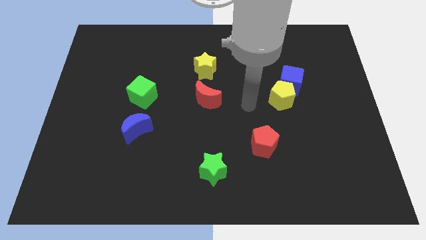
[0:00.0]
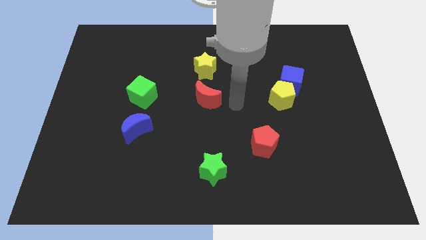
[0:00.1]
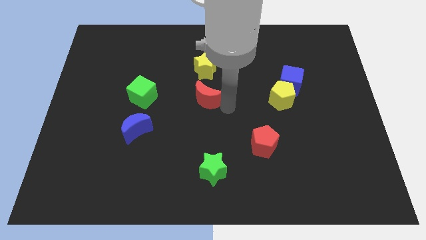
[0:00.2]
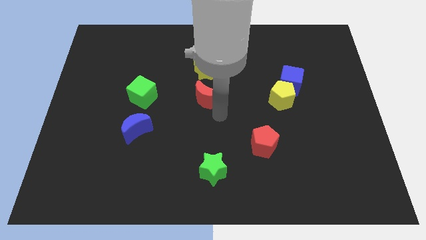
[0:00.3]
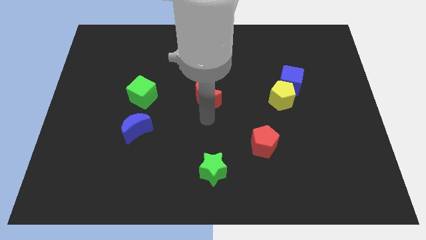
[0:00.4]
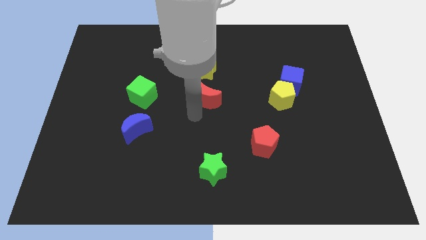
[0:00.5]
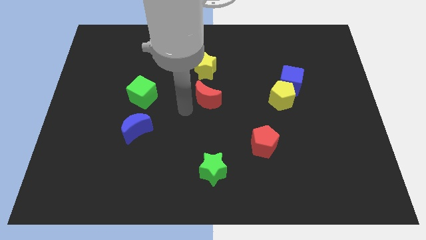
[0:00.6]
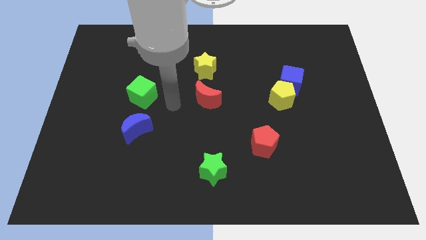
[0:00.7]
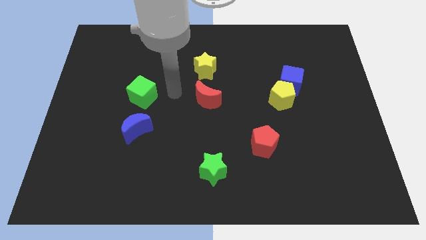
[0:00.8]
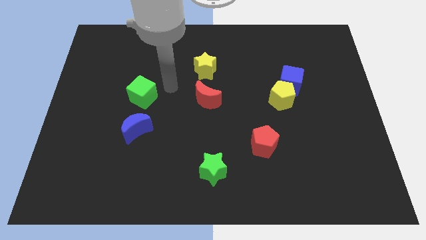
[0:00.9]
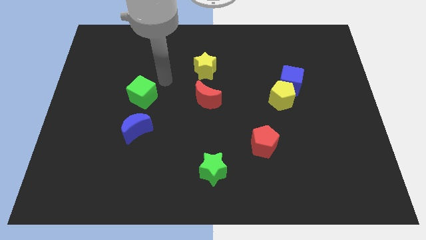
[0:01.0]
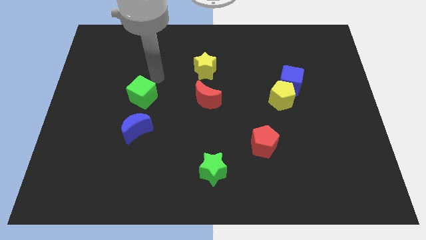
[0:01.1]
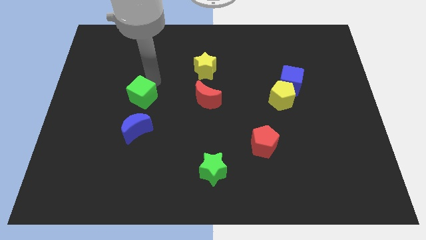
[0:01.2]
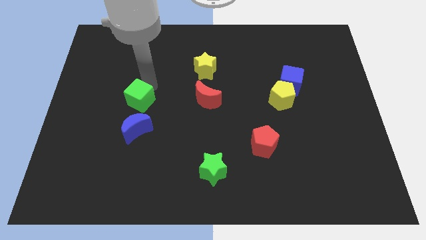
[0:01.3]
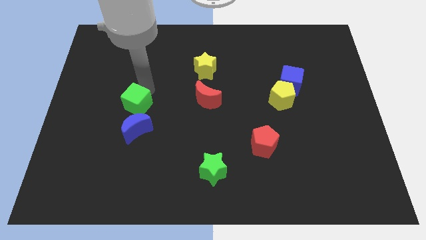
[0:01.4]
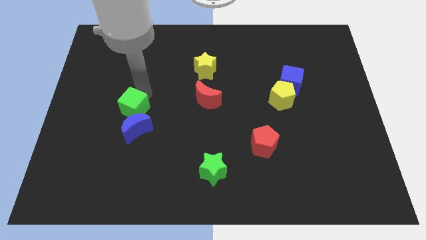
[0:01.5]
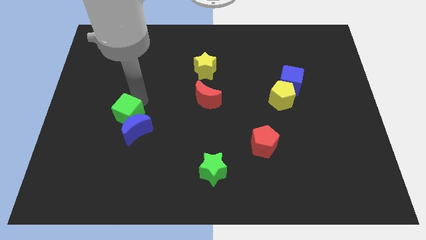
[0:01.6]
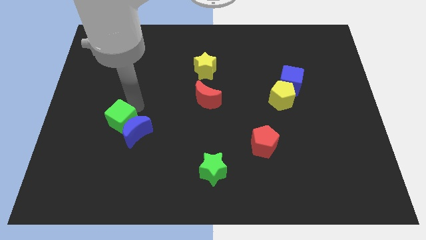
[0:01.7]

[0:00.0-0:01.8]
slide the green cube downwards a little bit

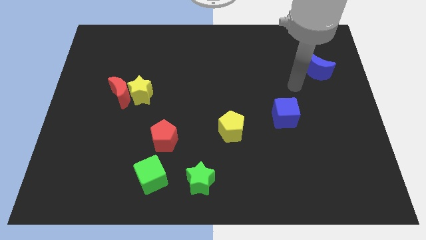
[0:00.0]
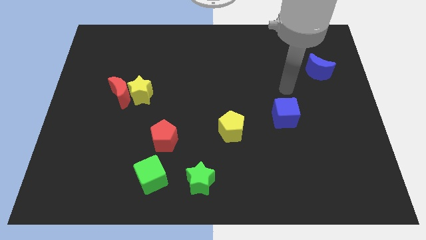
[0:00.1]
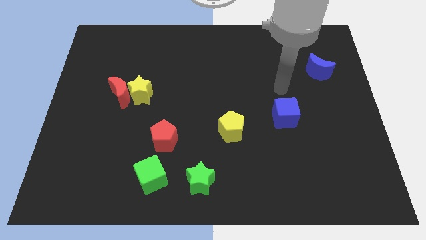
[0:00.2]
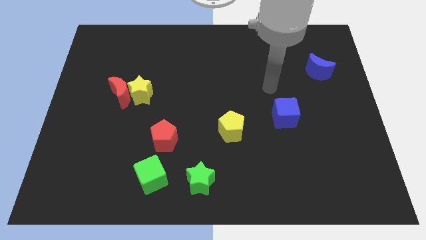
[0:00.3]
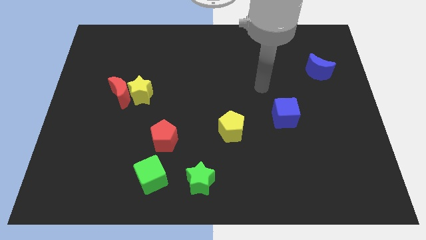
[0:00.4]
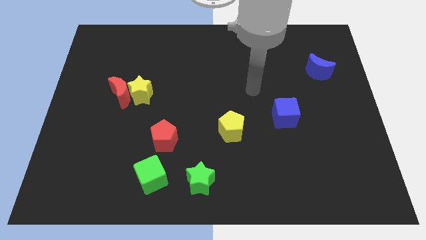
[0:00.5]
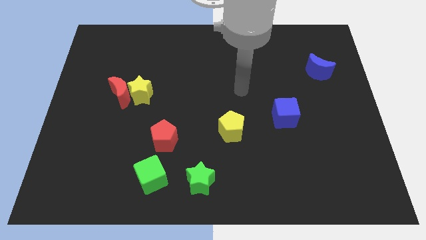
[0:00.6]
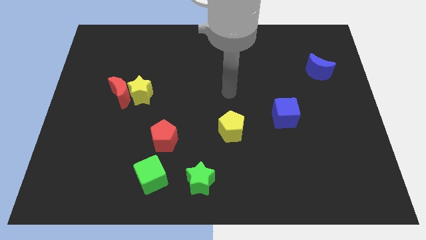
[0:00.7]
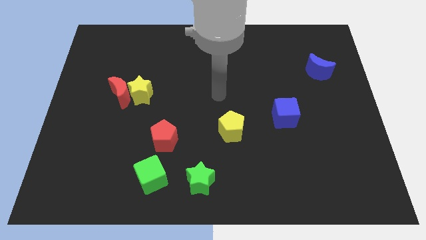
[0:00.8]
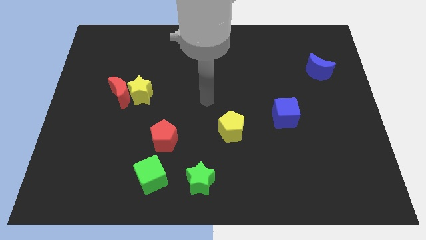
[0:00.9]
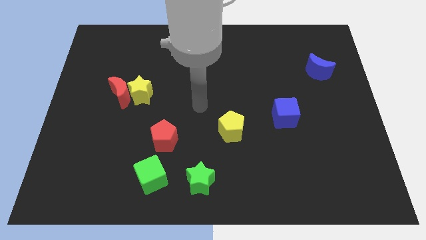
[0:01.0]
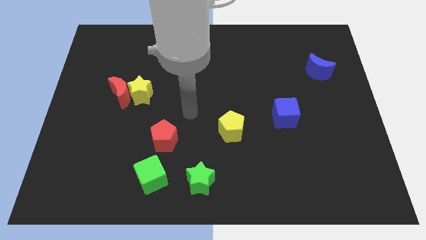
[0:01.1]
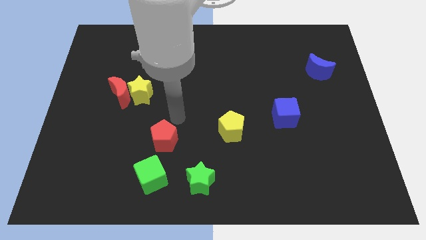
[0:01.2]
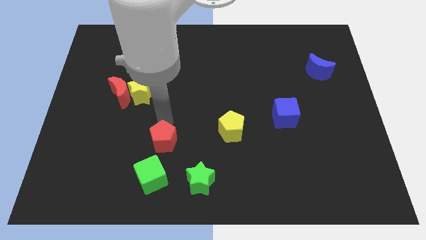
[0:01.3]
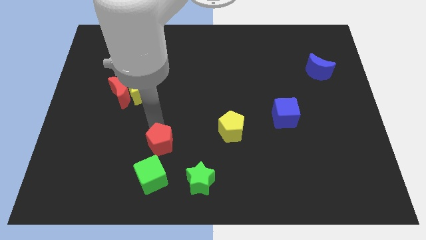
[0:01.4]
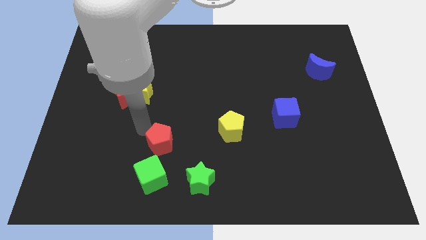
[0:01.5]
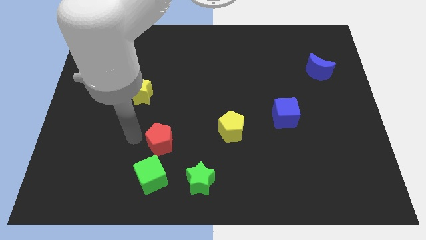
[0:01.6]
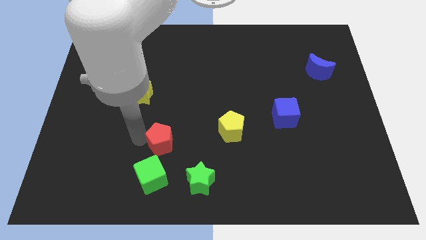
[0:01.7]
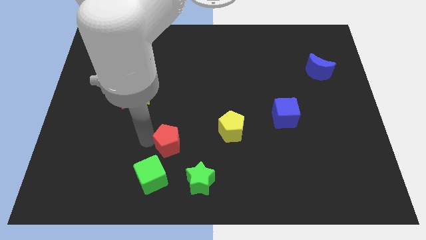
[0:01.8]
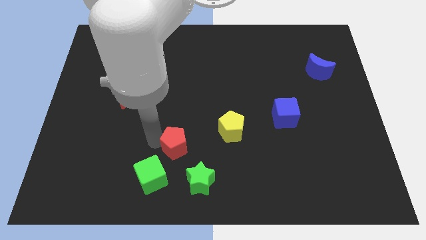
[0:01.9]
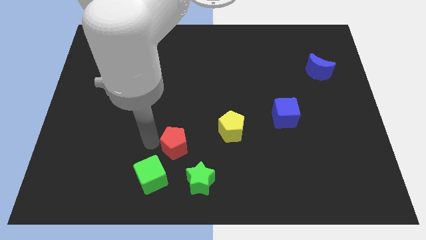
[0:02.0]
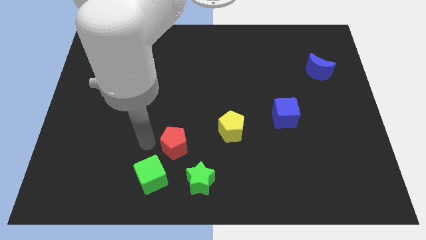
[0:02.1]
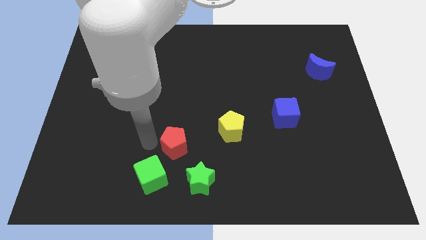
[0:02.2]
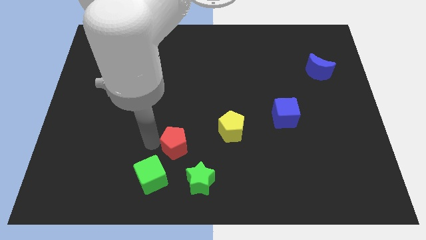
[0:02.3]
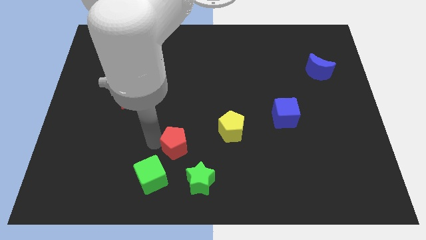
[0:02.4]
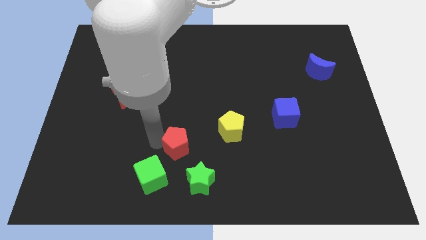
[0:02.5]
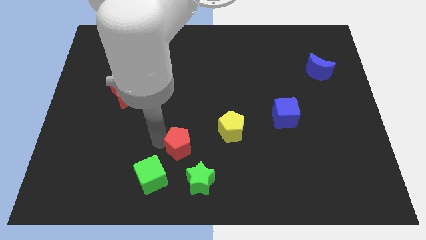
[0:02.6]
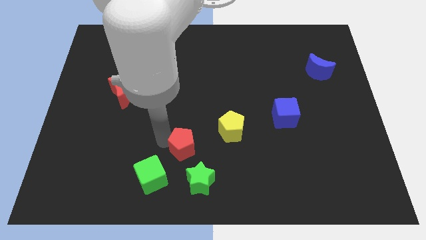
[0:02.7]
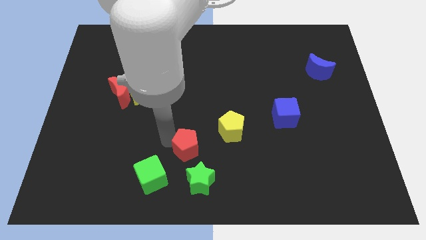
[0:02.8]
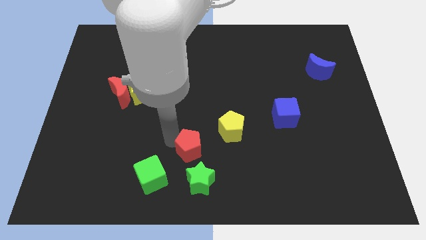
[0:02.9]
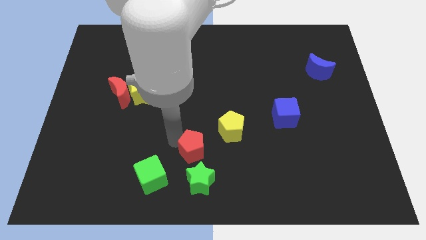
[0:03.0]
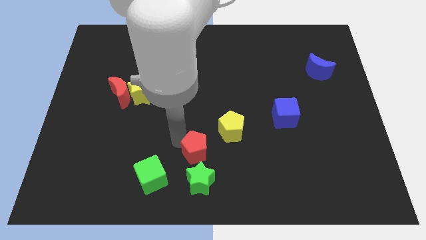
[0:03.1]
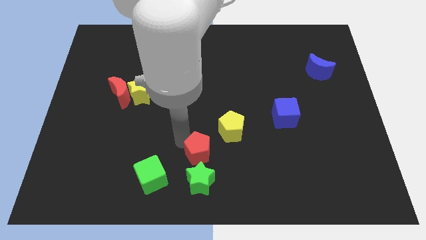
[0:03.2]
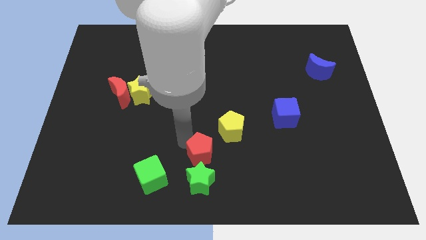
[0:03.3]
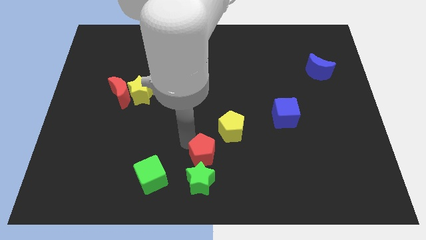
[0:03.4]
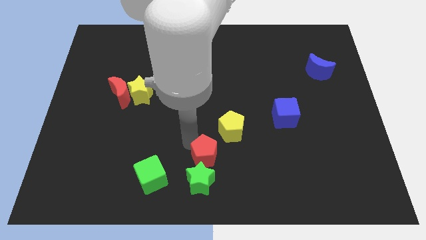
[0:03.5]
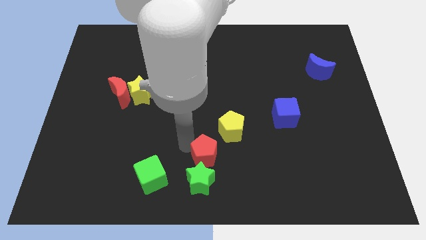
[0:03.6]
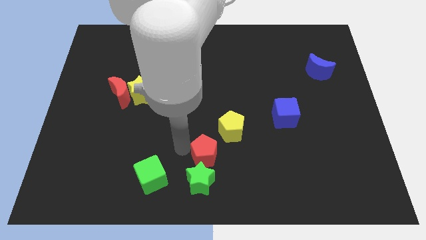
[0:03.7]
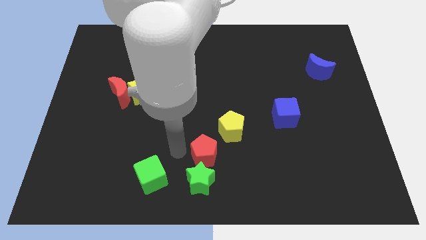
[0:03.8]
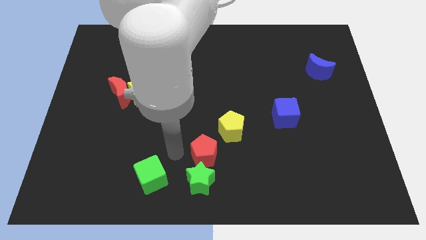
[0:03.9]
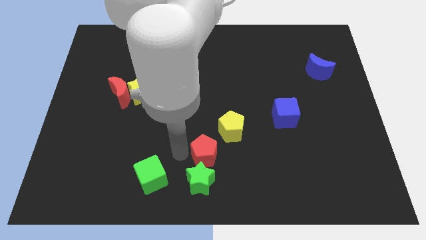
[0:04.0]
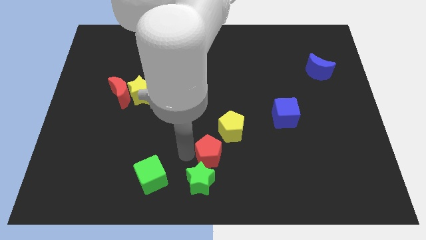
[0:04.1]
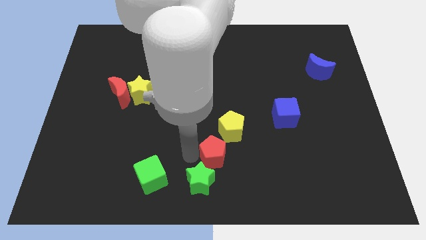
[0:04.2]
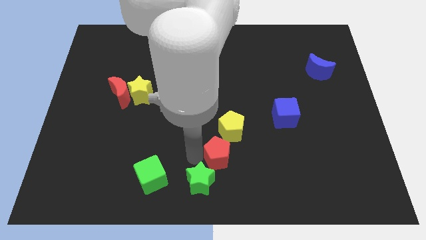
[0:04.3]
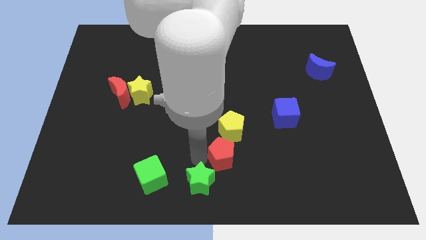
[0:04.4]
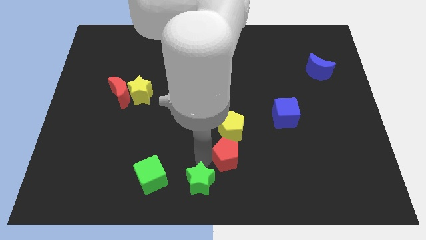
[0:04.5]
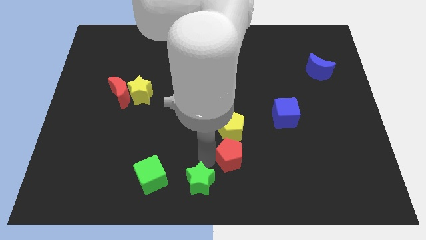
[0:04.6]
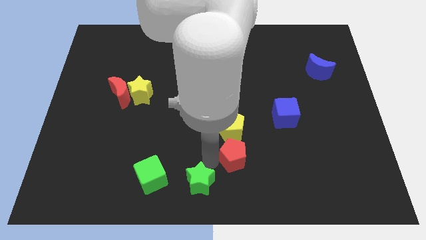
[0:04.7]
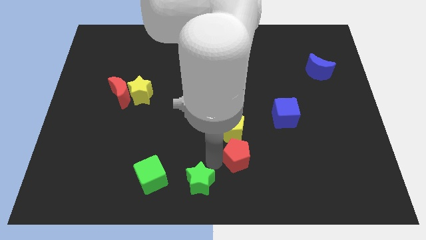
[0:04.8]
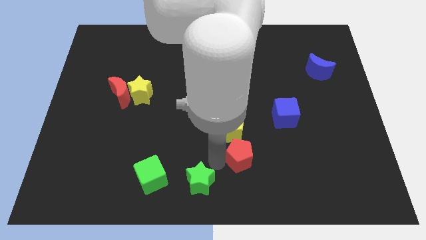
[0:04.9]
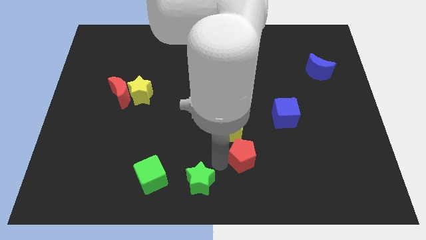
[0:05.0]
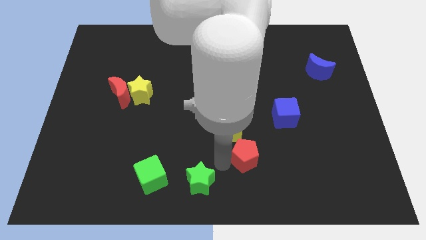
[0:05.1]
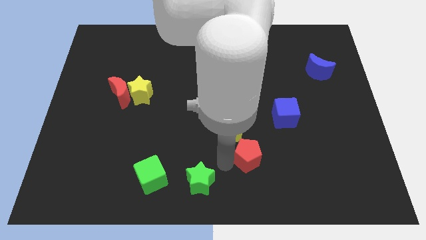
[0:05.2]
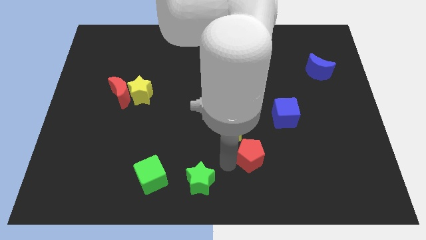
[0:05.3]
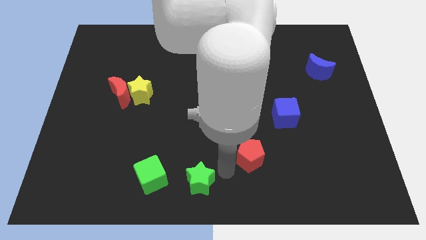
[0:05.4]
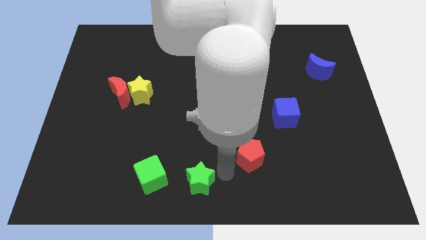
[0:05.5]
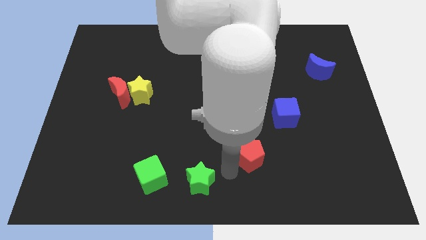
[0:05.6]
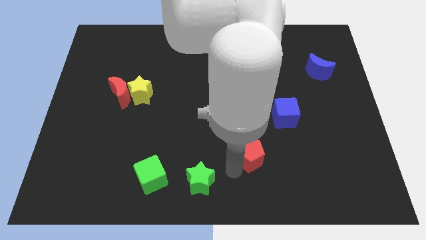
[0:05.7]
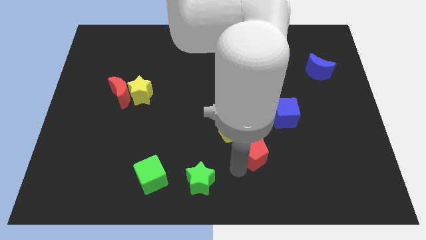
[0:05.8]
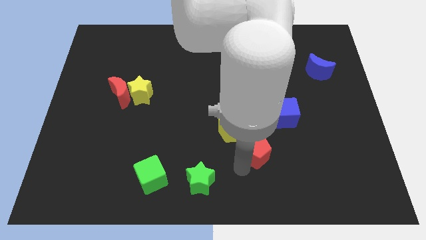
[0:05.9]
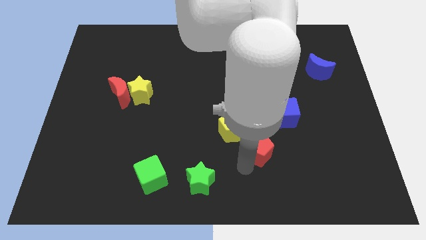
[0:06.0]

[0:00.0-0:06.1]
slide the red pentagon to the right
